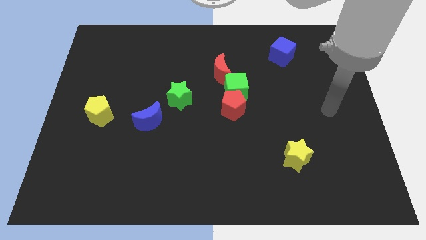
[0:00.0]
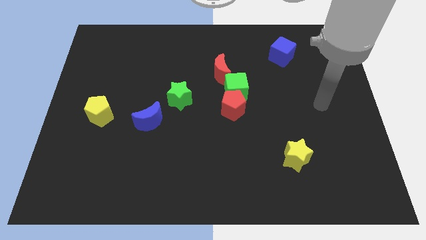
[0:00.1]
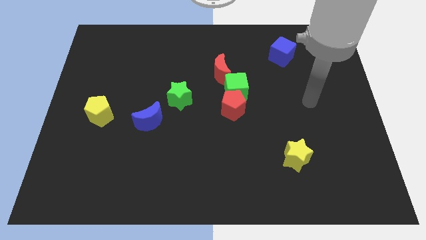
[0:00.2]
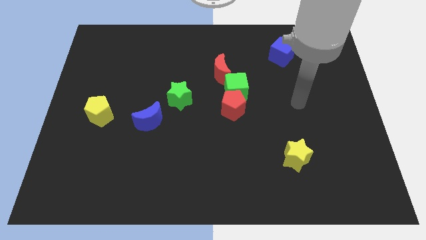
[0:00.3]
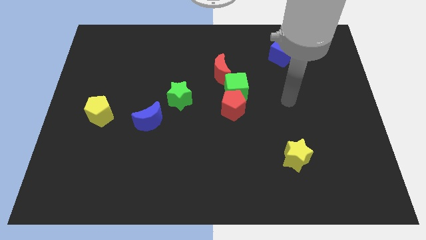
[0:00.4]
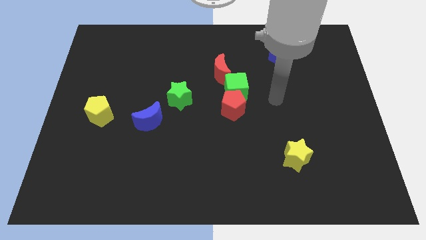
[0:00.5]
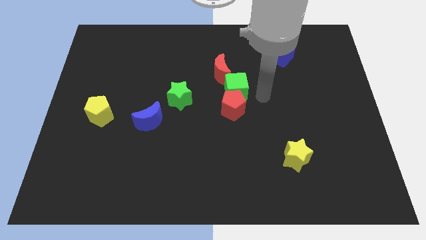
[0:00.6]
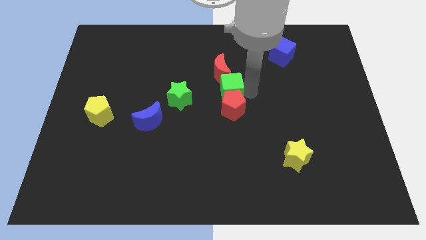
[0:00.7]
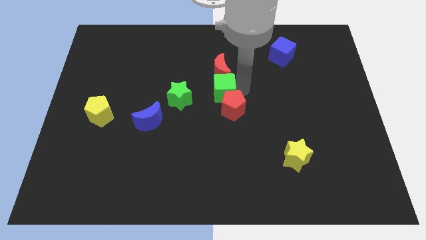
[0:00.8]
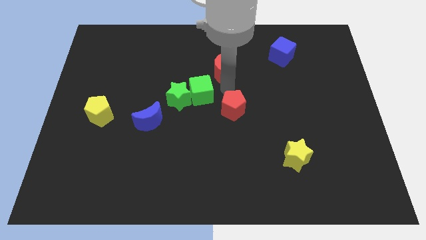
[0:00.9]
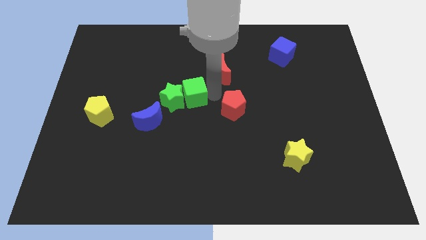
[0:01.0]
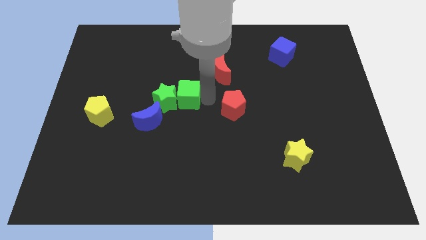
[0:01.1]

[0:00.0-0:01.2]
pull the red pentagon apart from the green cube

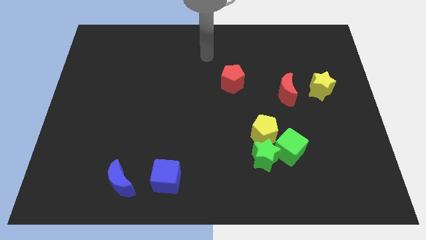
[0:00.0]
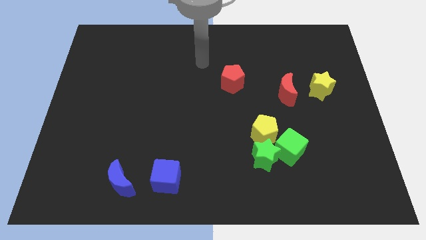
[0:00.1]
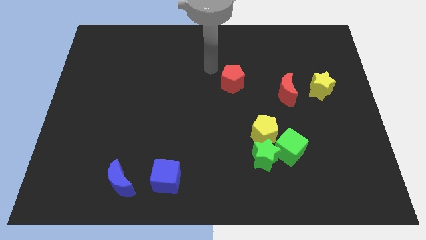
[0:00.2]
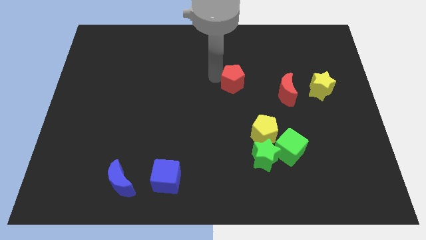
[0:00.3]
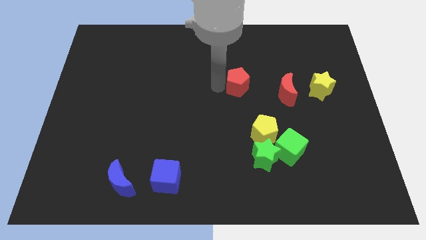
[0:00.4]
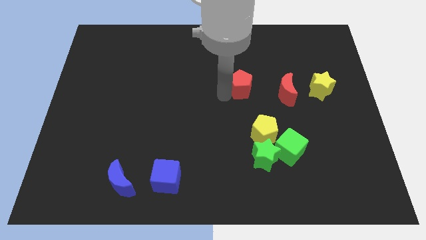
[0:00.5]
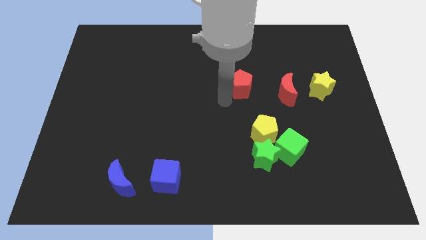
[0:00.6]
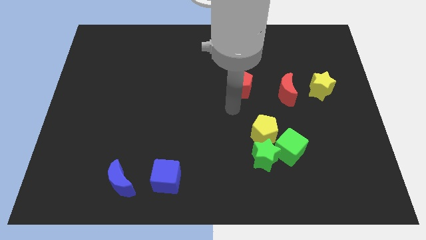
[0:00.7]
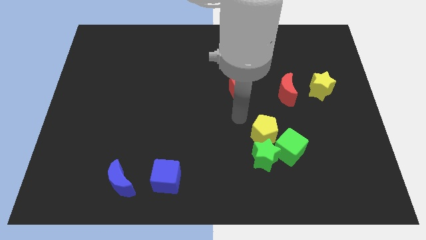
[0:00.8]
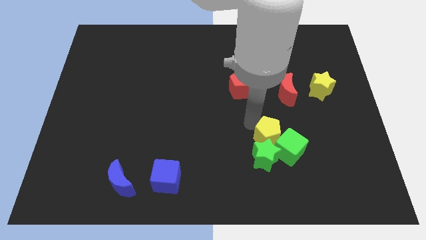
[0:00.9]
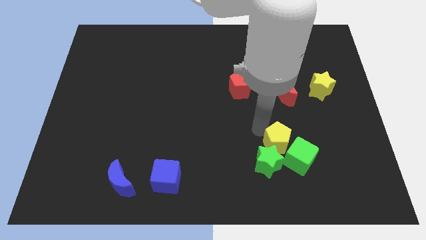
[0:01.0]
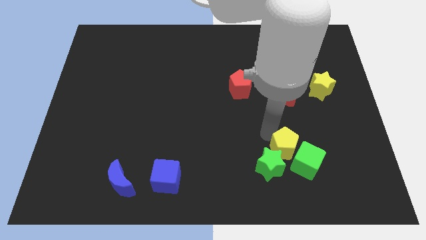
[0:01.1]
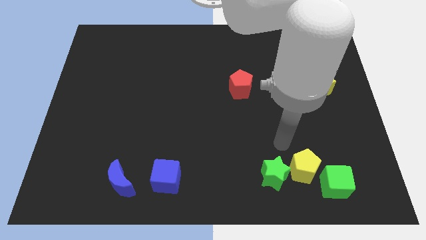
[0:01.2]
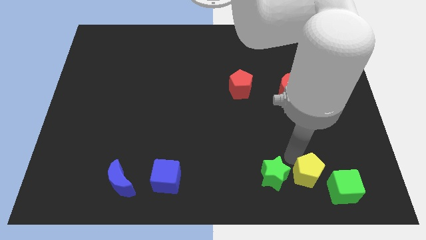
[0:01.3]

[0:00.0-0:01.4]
pull the green star apart from the green cube and yellow pentagon

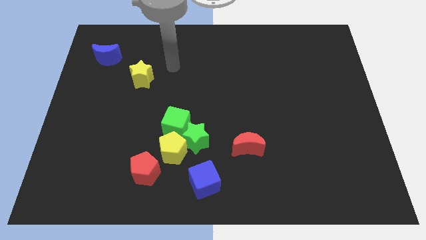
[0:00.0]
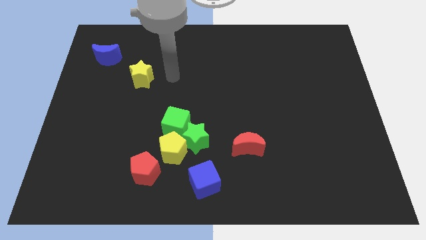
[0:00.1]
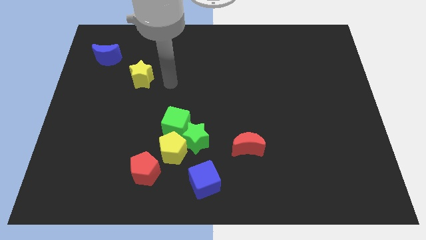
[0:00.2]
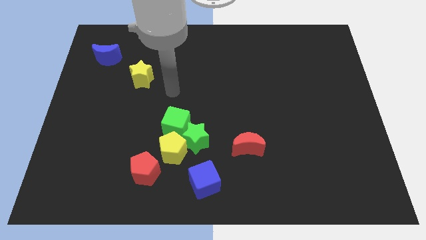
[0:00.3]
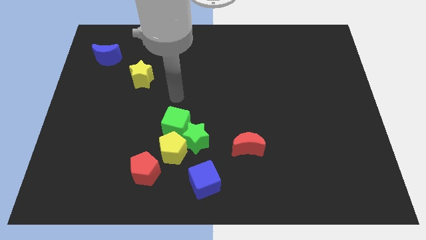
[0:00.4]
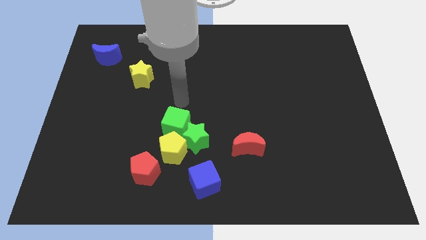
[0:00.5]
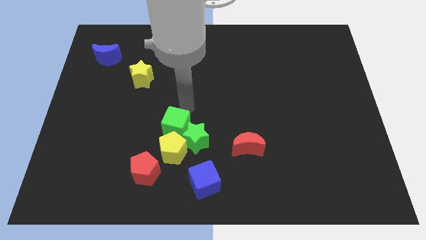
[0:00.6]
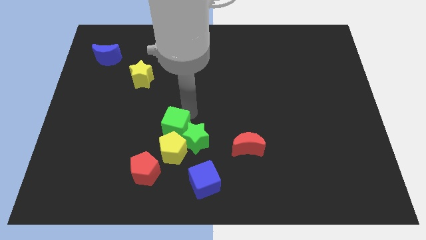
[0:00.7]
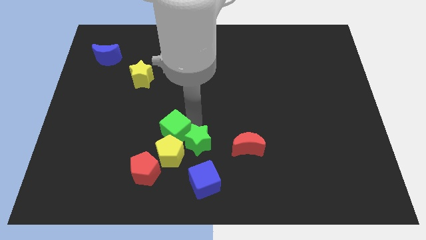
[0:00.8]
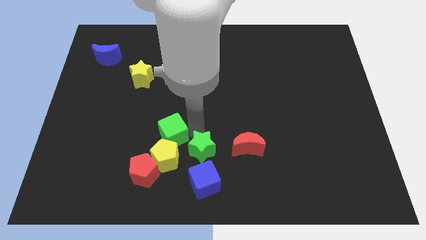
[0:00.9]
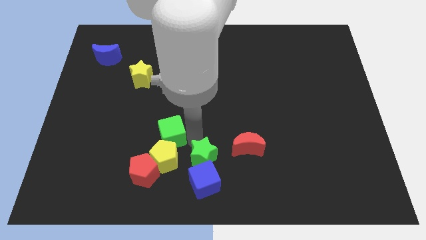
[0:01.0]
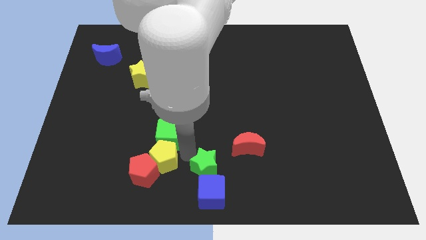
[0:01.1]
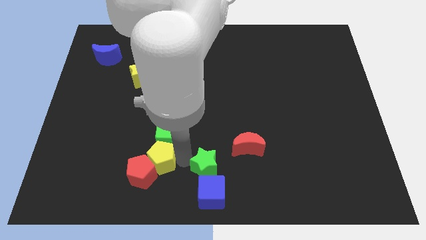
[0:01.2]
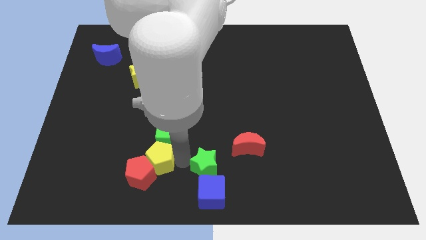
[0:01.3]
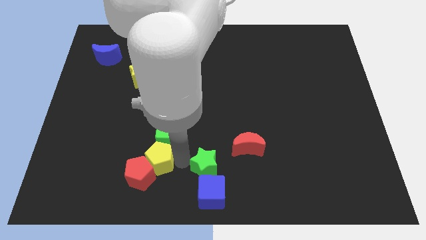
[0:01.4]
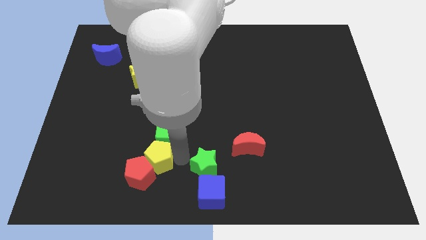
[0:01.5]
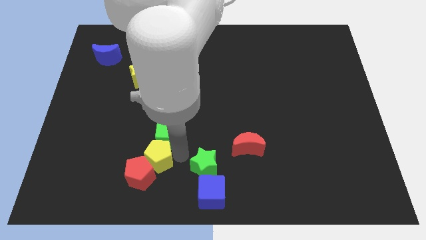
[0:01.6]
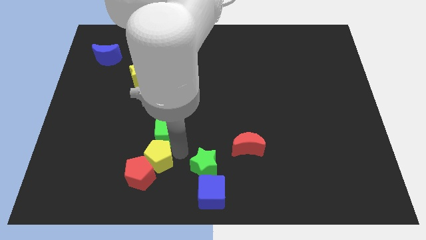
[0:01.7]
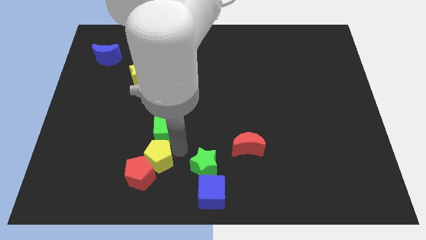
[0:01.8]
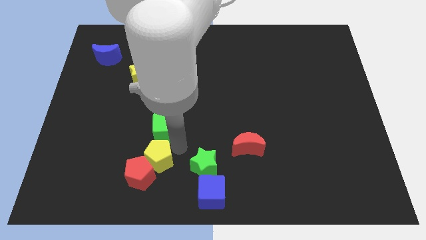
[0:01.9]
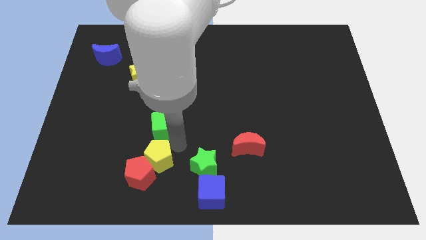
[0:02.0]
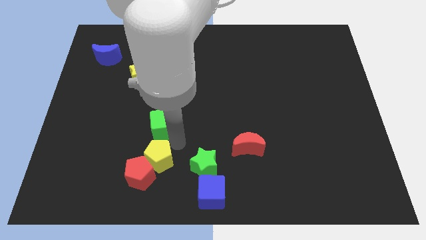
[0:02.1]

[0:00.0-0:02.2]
separate the green cube from the green star and yellow pentagon

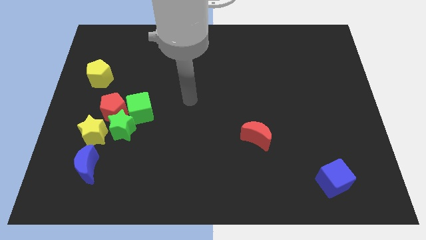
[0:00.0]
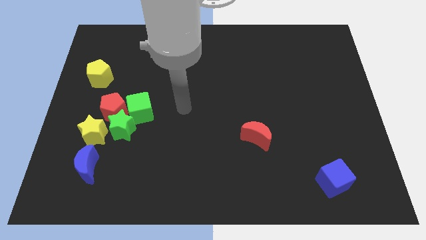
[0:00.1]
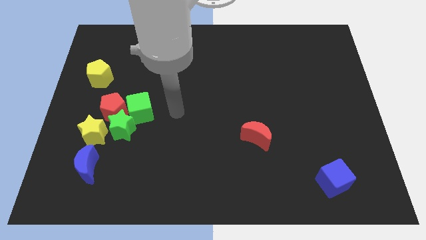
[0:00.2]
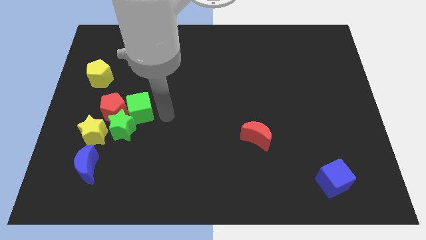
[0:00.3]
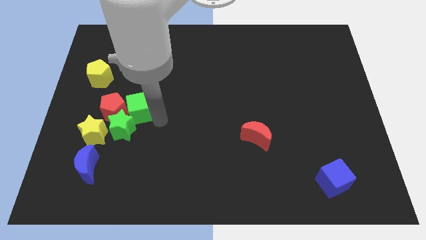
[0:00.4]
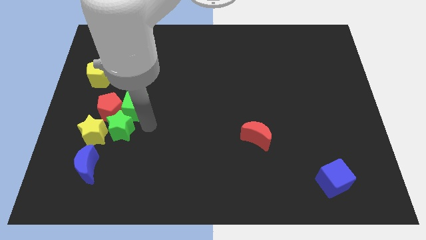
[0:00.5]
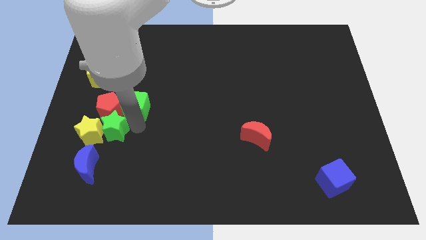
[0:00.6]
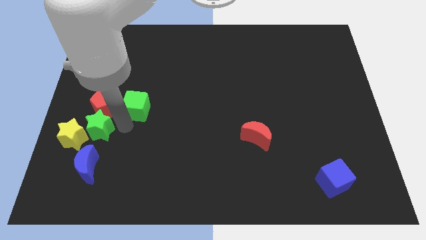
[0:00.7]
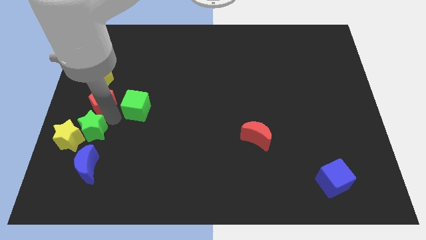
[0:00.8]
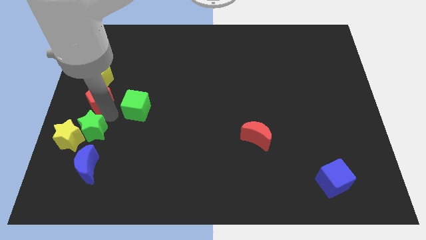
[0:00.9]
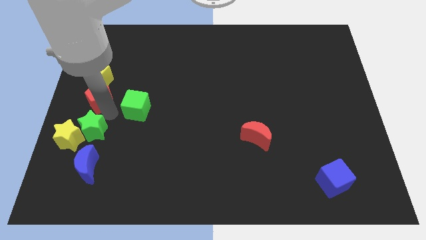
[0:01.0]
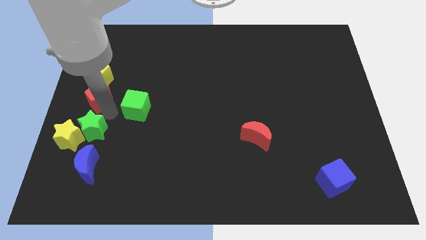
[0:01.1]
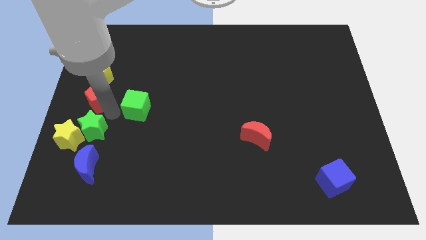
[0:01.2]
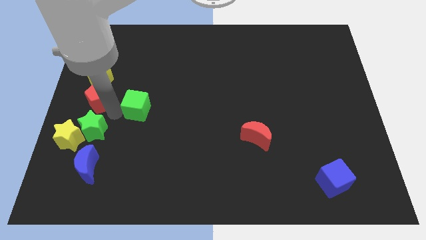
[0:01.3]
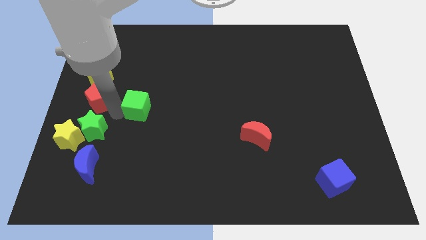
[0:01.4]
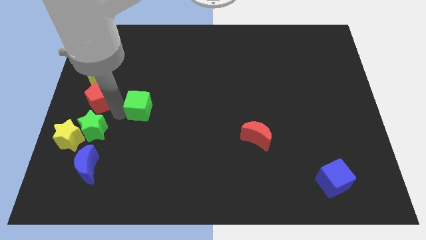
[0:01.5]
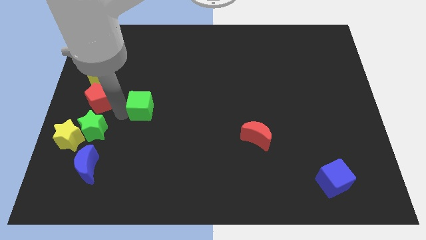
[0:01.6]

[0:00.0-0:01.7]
move the green cube away from the green star and red pentagon

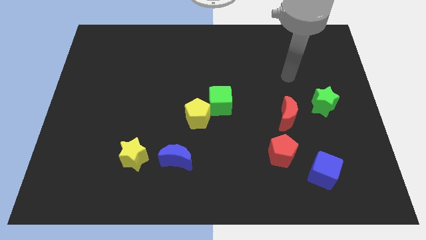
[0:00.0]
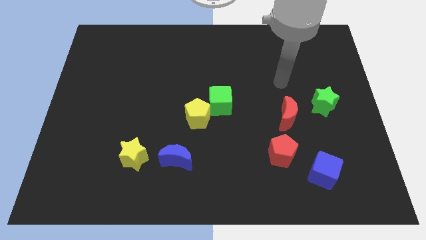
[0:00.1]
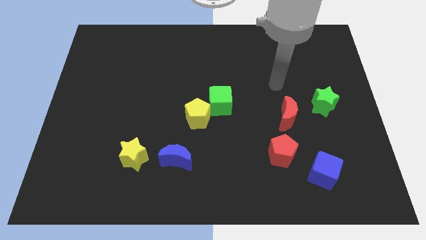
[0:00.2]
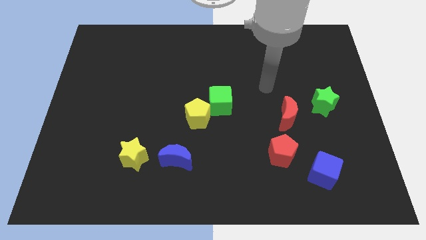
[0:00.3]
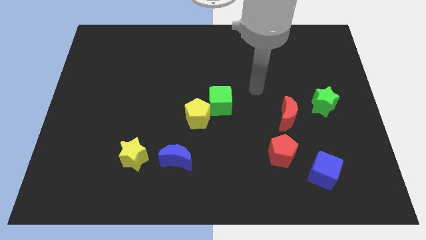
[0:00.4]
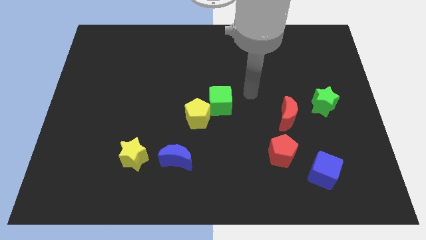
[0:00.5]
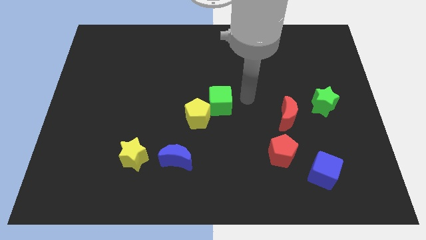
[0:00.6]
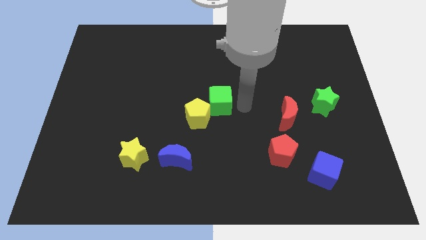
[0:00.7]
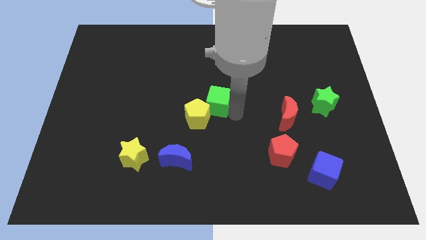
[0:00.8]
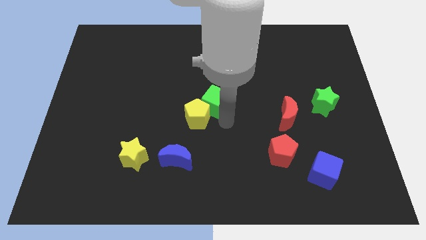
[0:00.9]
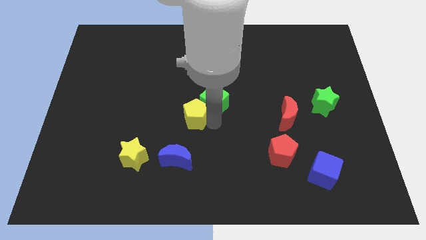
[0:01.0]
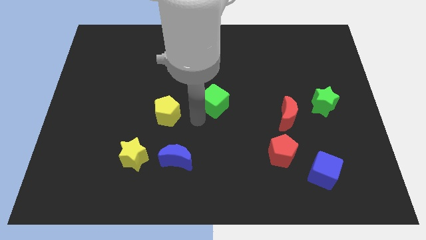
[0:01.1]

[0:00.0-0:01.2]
separate the green cube from the yellow pentagon

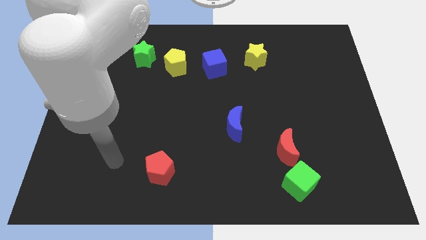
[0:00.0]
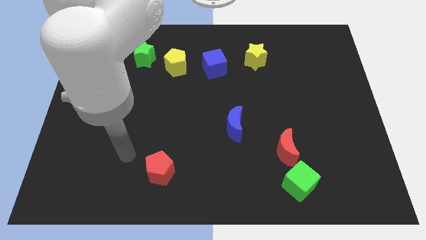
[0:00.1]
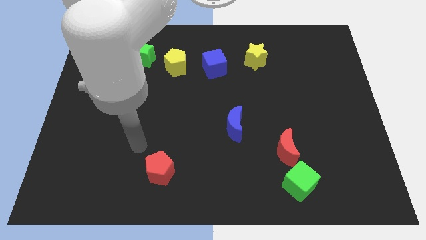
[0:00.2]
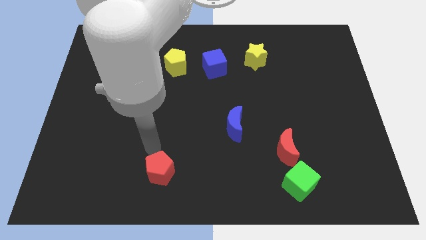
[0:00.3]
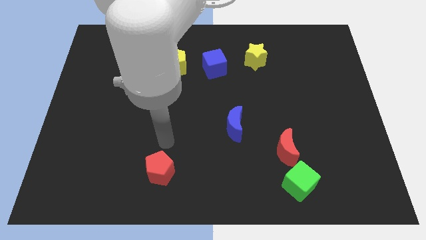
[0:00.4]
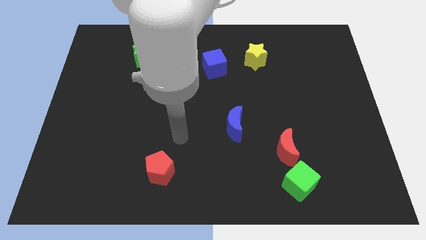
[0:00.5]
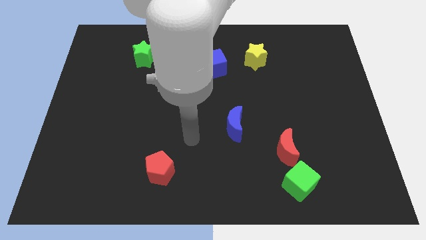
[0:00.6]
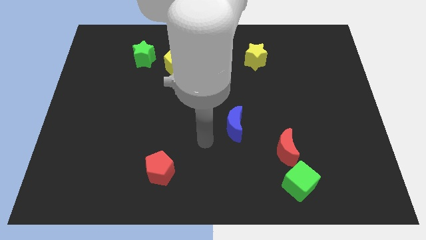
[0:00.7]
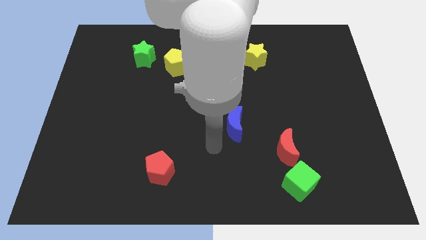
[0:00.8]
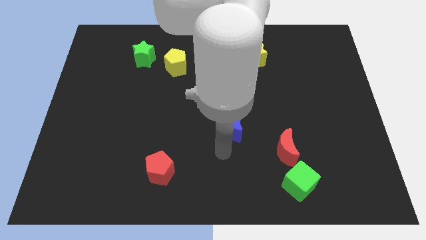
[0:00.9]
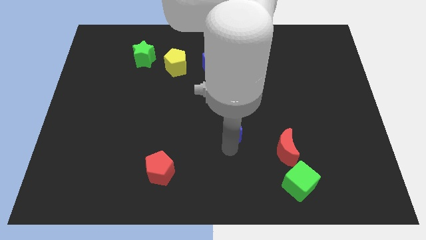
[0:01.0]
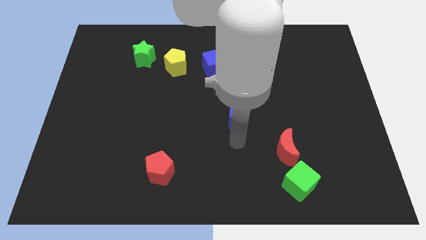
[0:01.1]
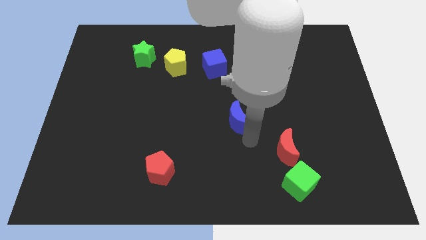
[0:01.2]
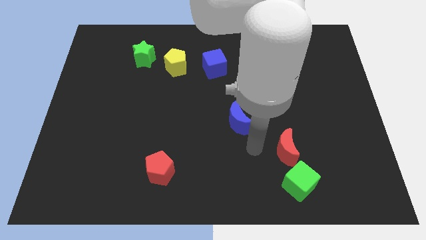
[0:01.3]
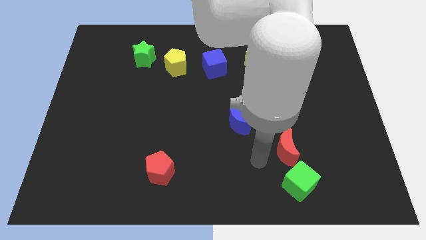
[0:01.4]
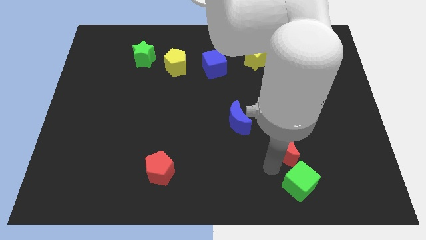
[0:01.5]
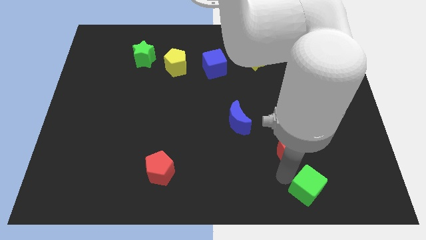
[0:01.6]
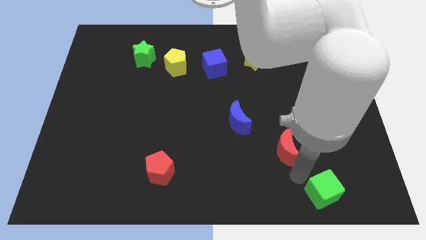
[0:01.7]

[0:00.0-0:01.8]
separate the red moon from the green cube
